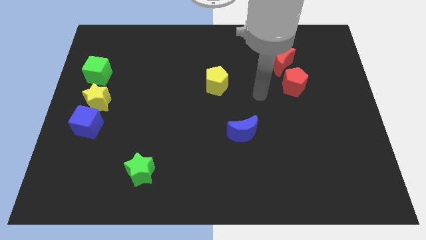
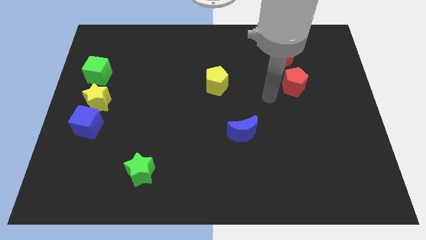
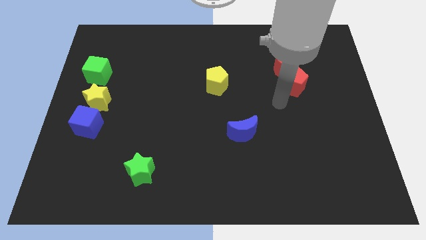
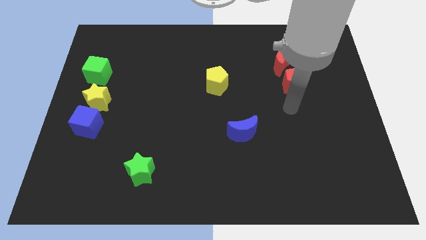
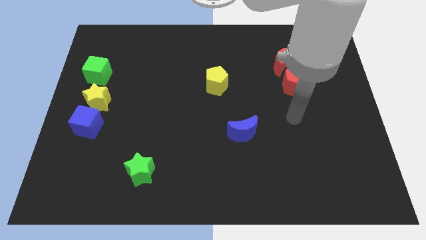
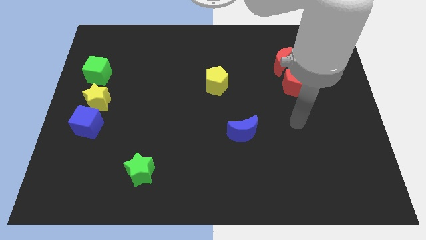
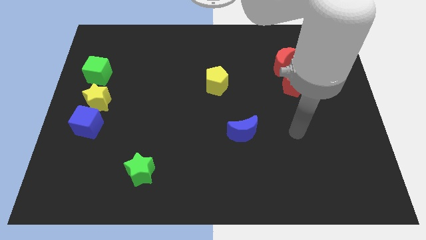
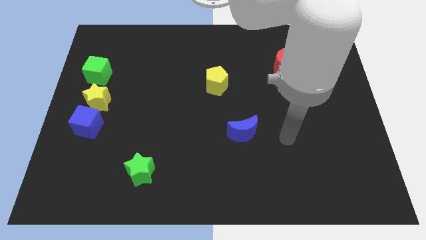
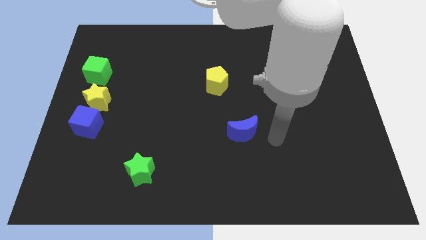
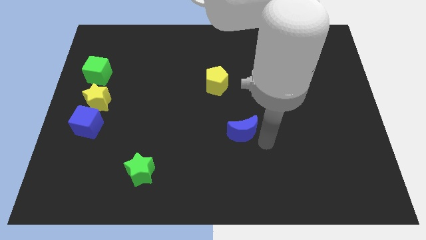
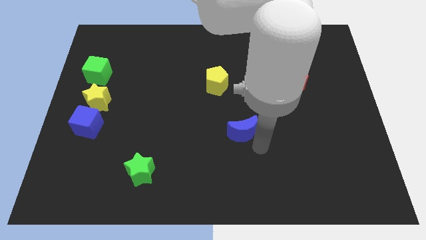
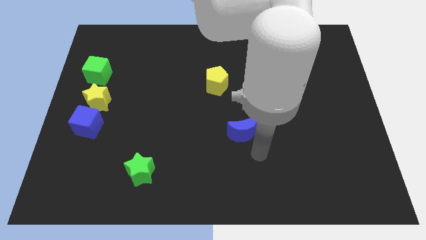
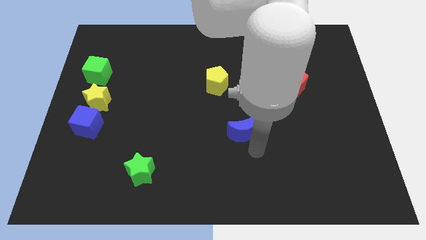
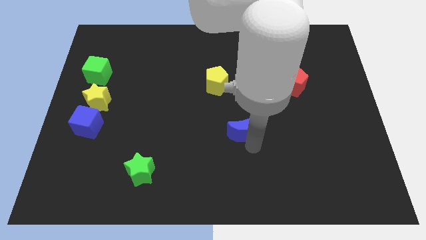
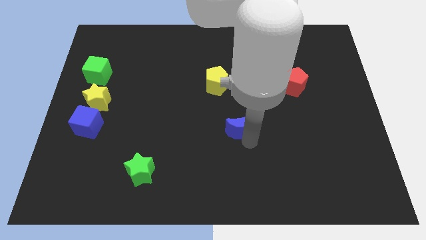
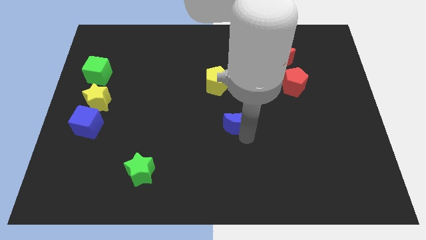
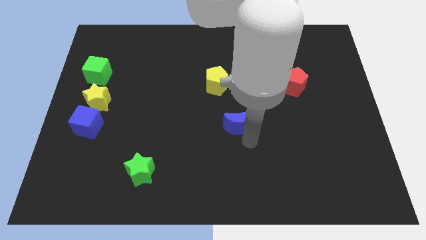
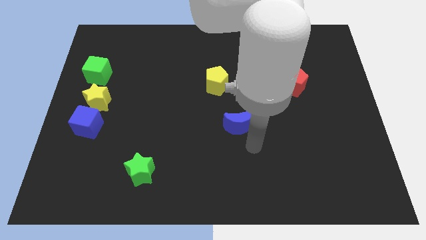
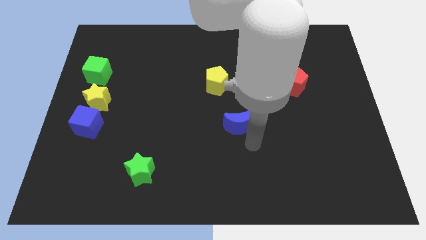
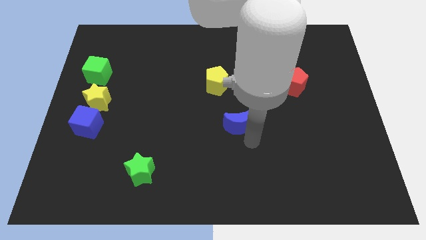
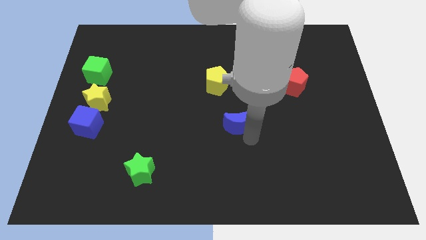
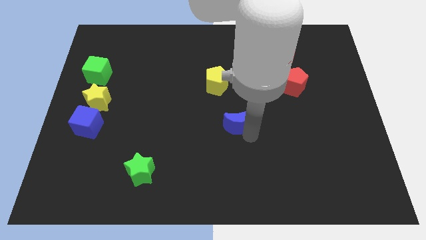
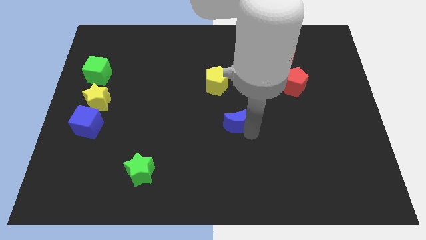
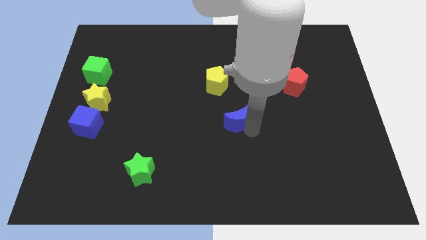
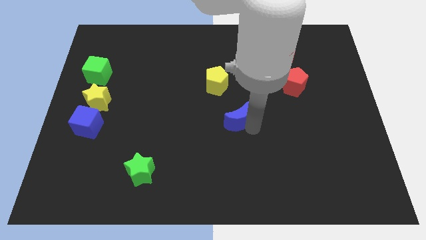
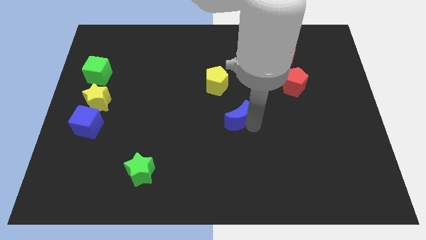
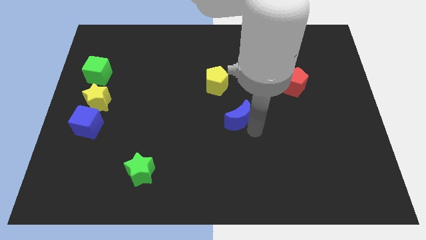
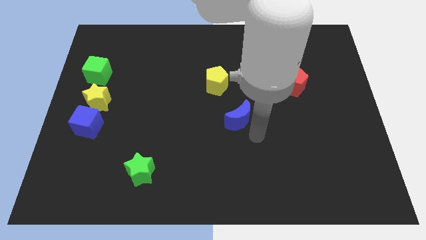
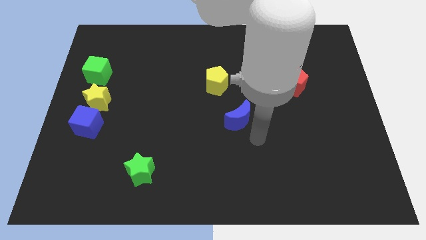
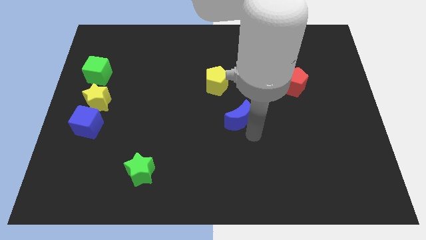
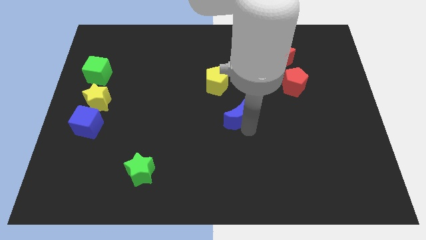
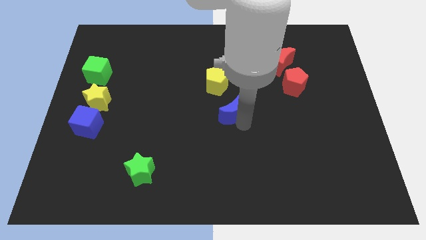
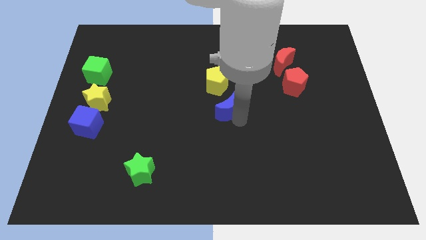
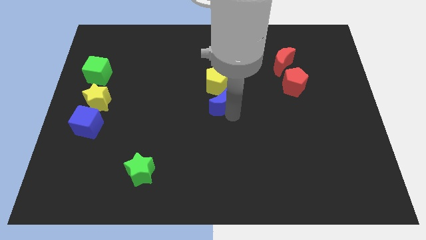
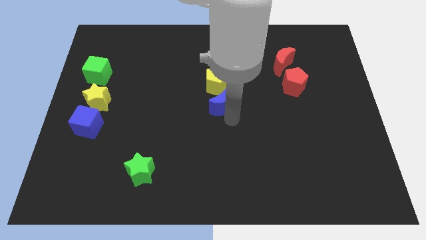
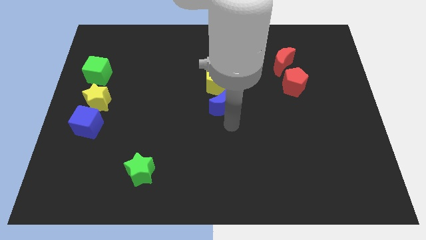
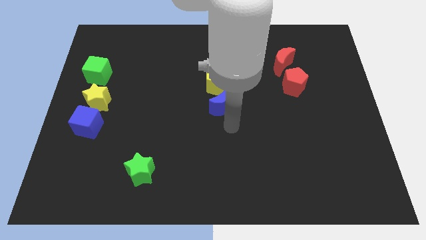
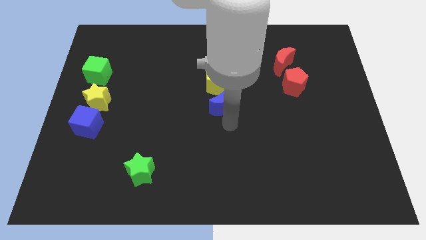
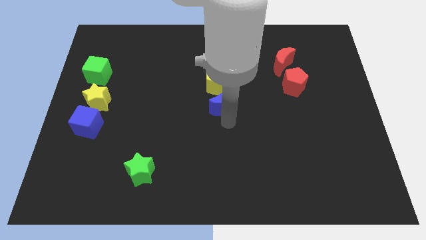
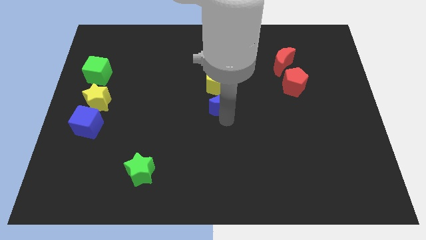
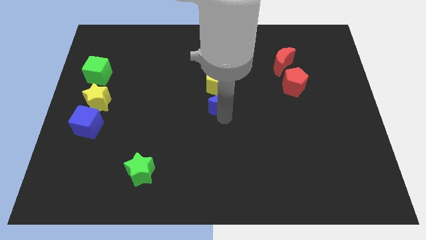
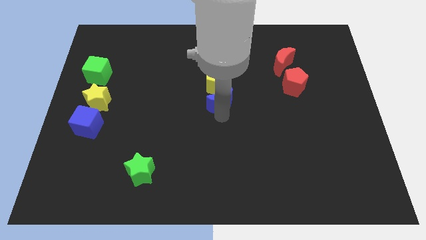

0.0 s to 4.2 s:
slide the blue moon next to the yellow pentagon

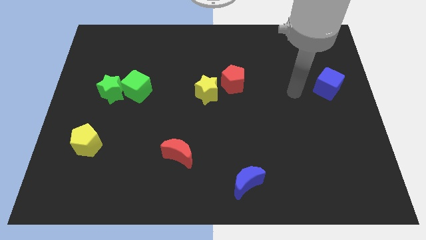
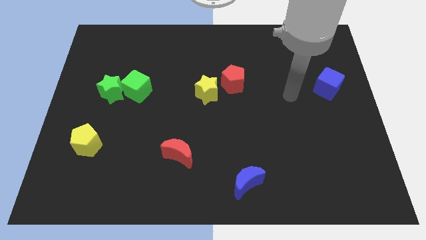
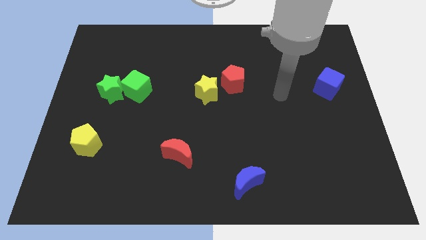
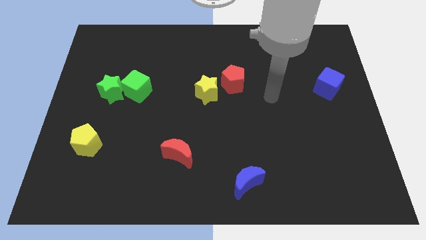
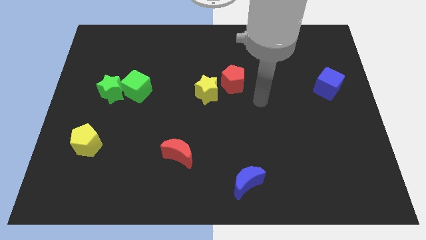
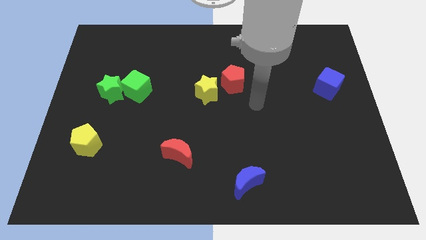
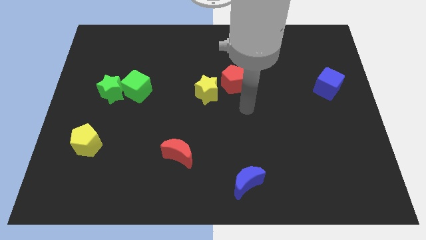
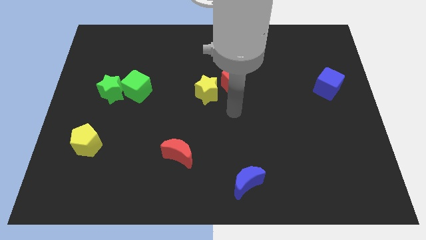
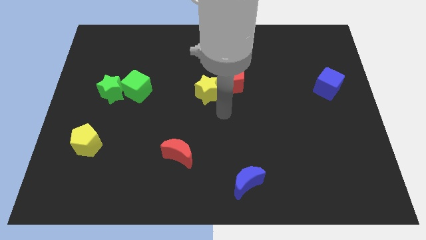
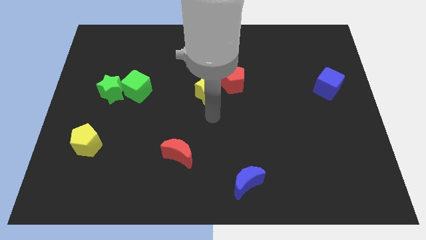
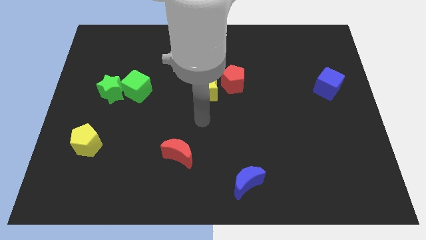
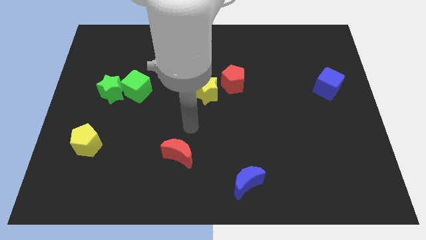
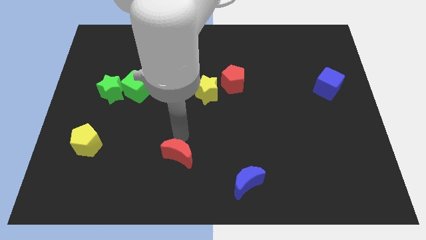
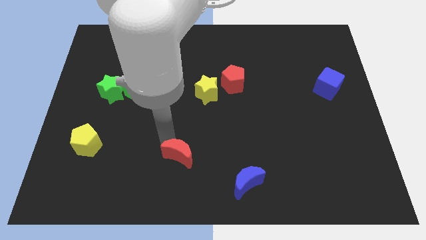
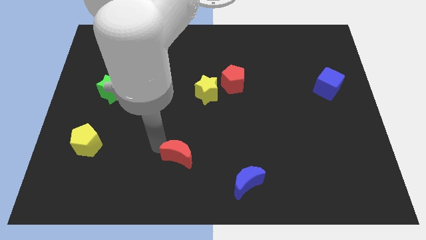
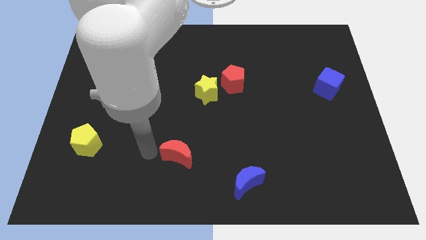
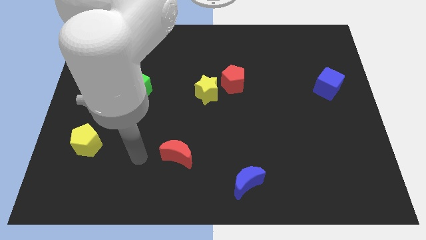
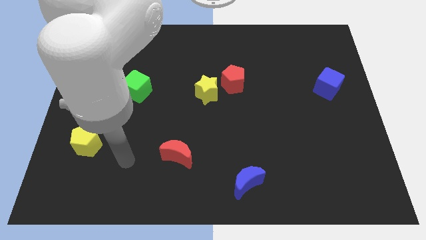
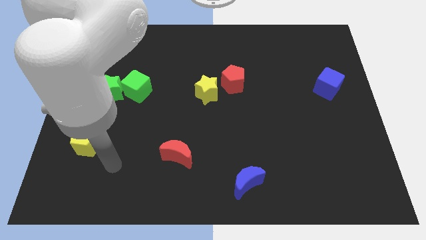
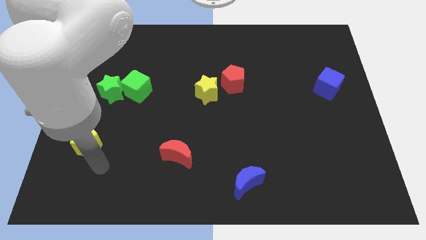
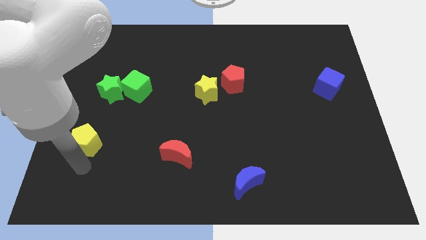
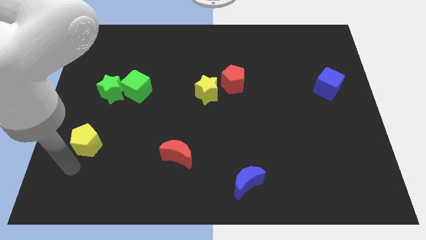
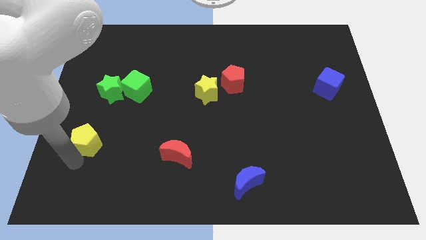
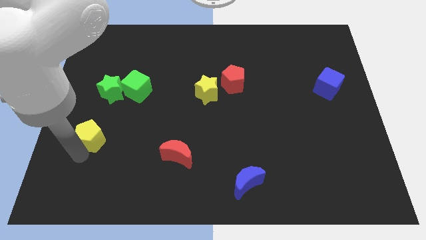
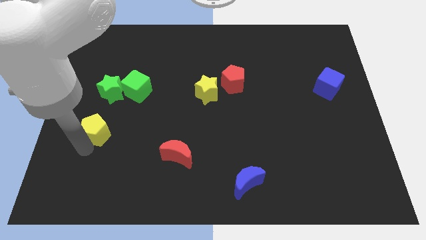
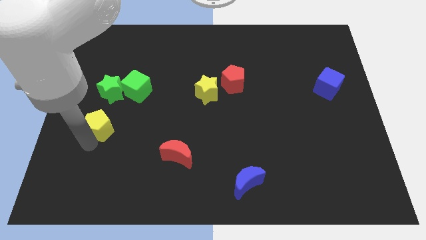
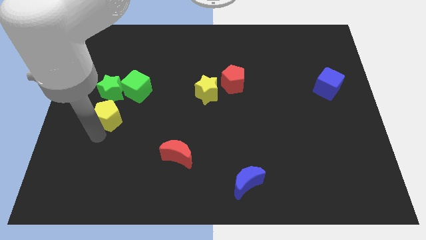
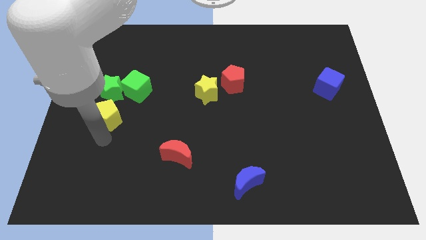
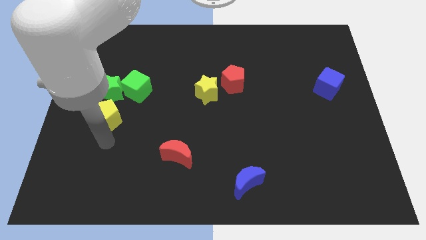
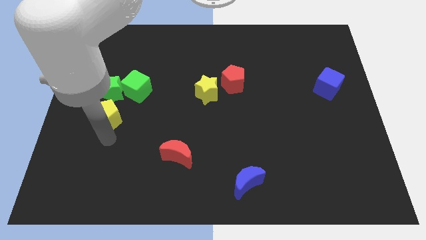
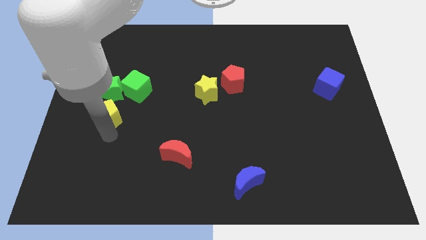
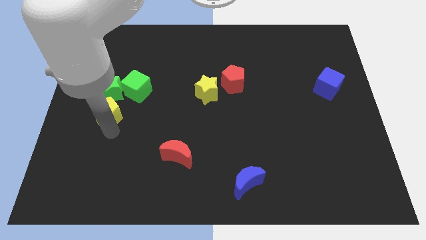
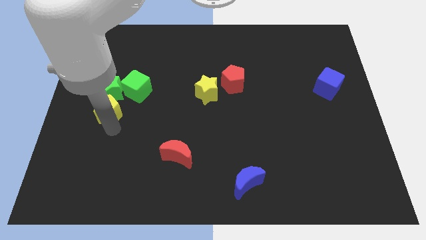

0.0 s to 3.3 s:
put the yellow pentagon next to the green star

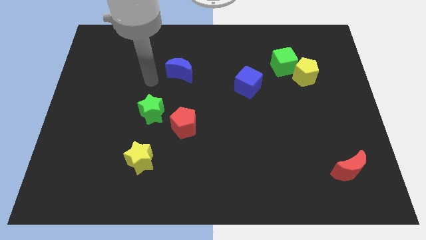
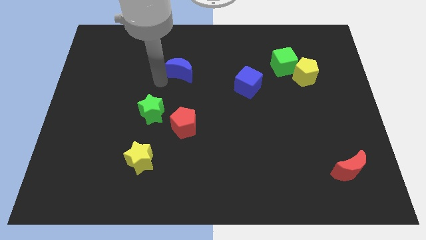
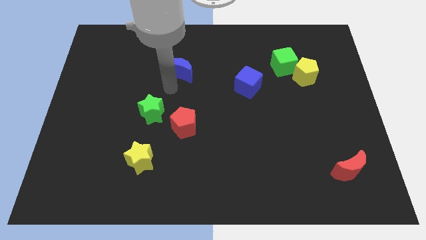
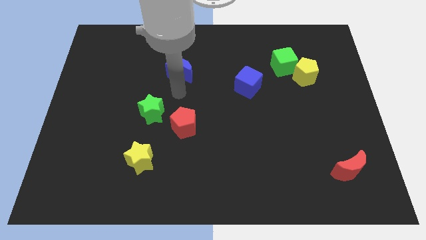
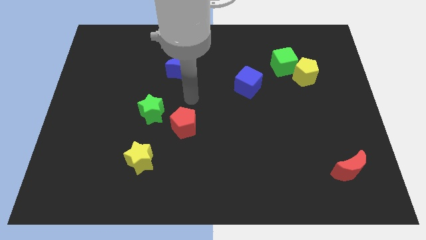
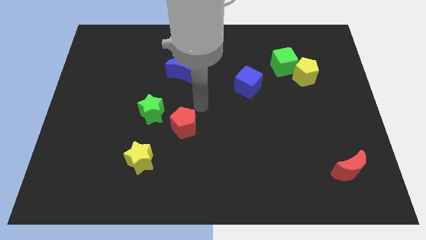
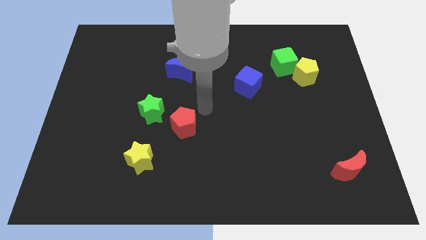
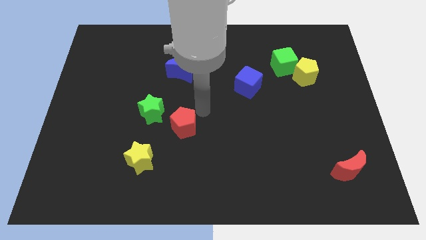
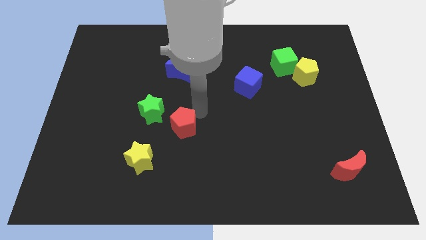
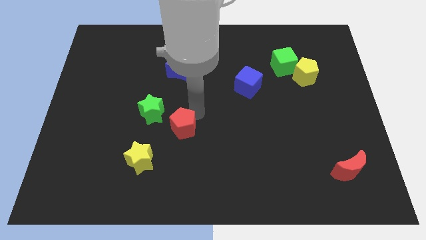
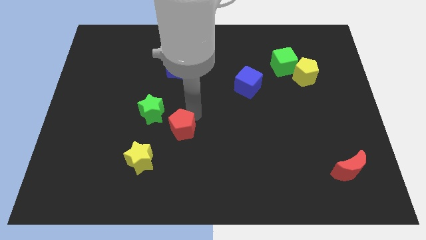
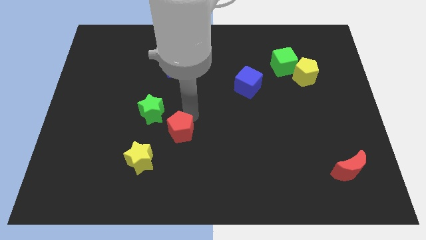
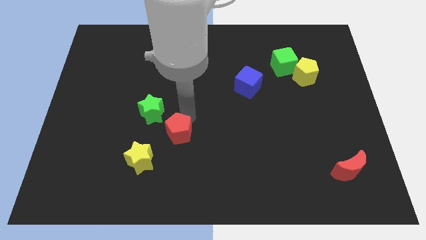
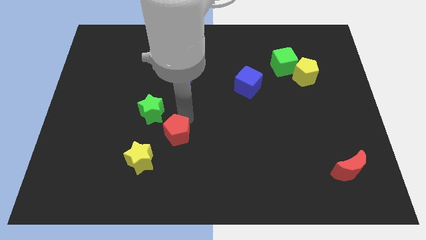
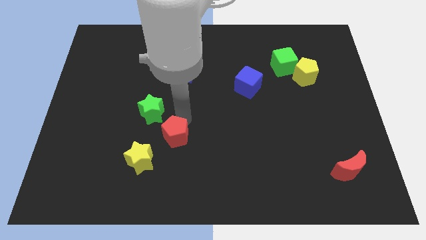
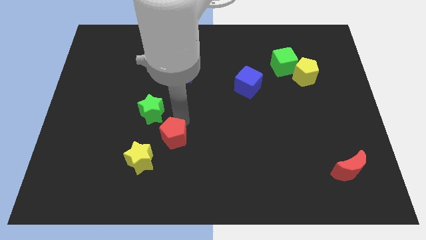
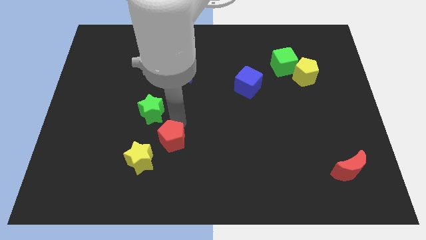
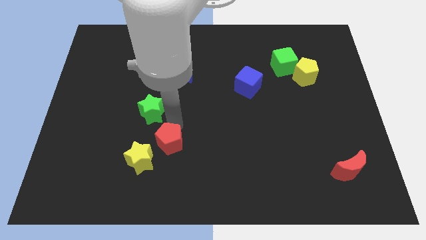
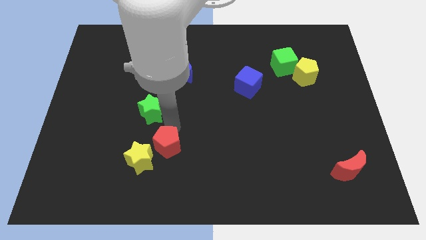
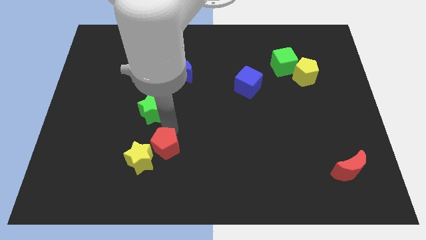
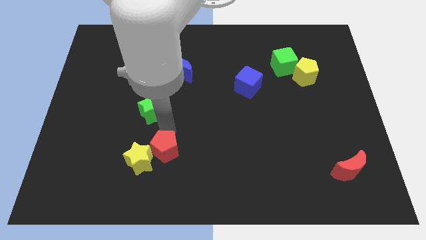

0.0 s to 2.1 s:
move the red pentagon next to the yellow star
